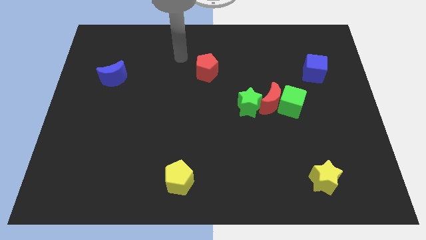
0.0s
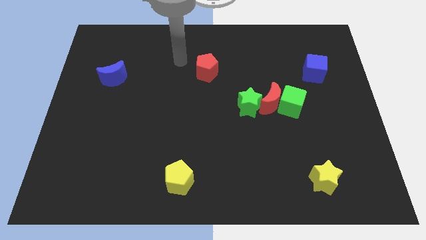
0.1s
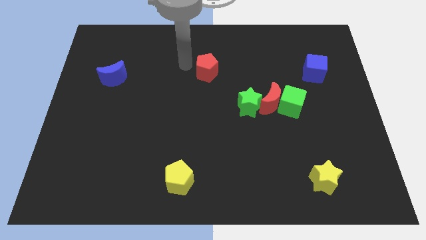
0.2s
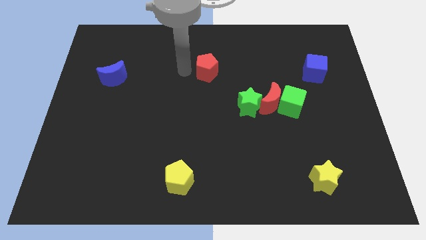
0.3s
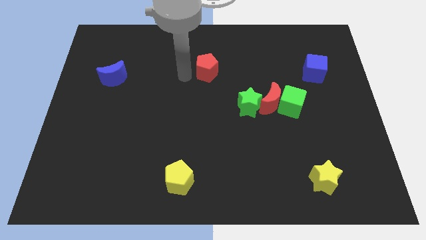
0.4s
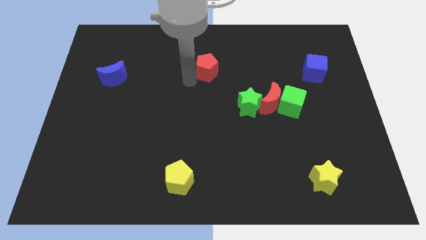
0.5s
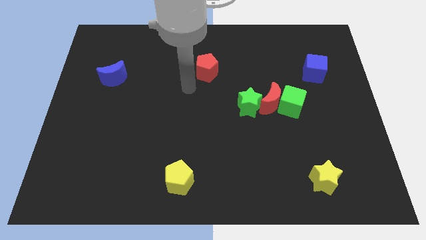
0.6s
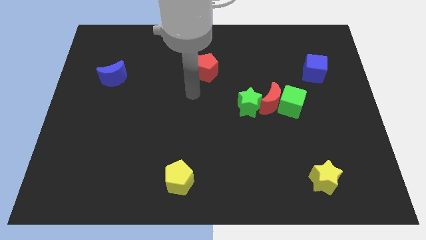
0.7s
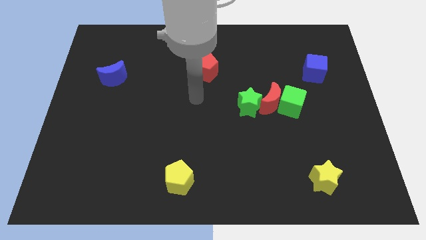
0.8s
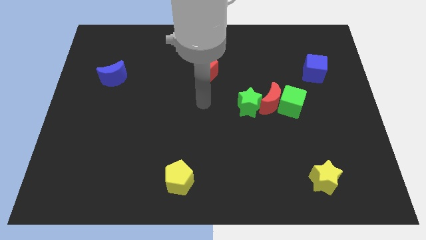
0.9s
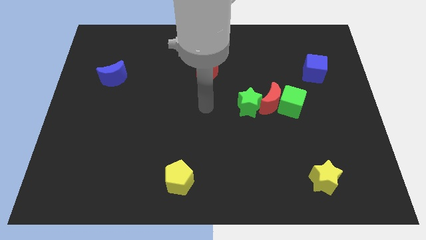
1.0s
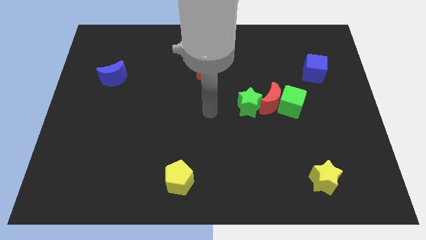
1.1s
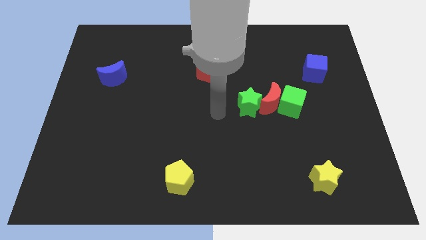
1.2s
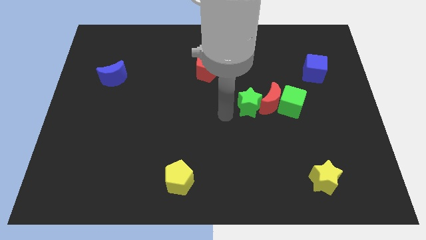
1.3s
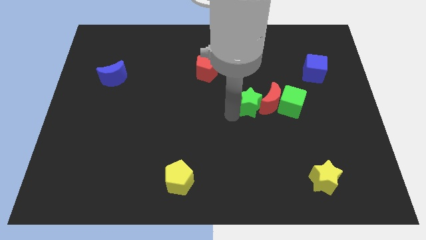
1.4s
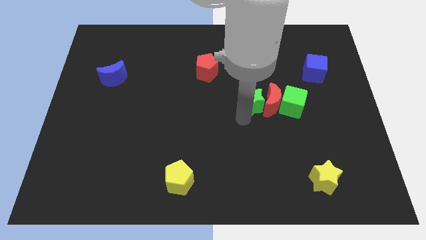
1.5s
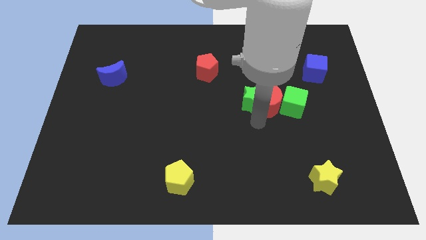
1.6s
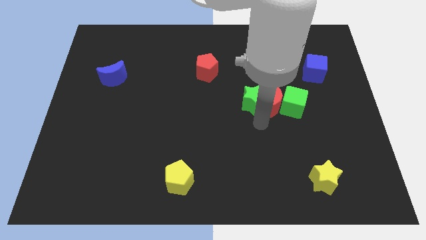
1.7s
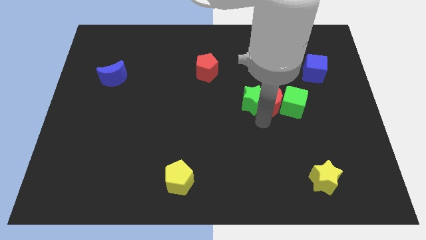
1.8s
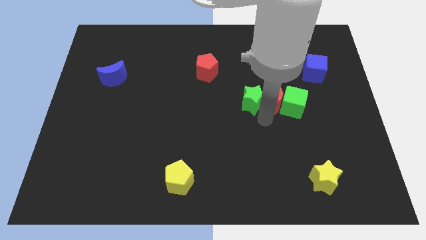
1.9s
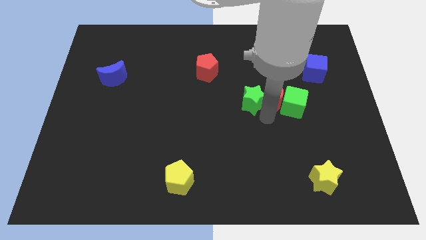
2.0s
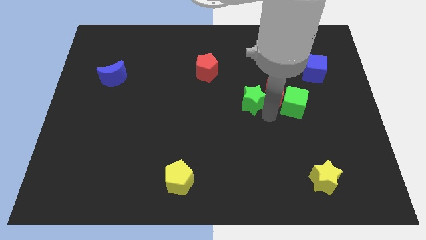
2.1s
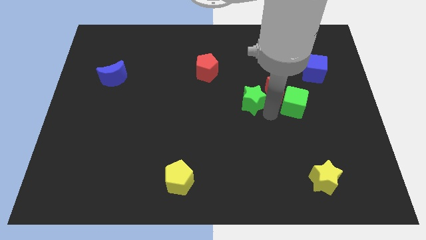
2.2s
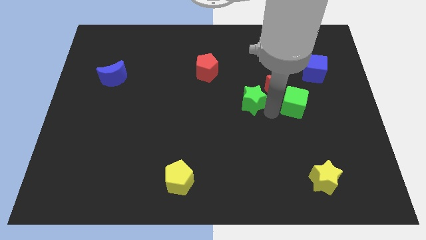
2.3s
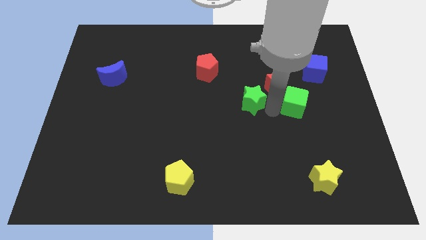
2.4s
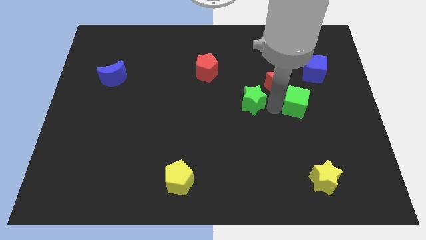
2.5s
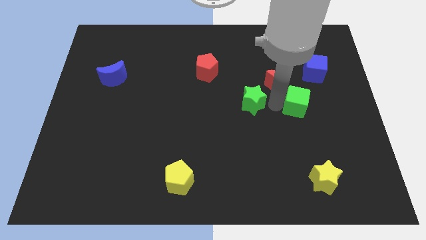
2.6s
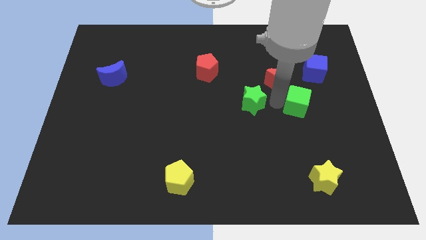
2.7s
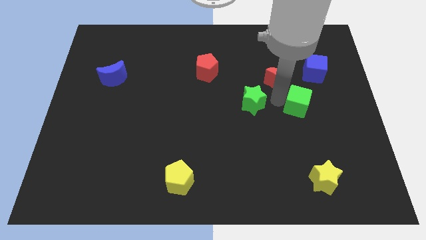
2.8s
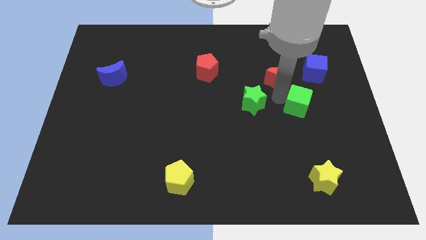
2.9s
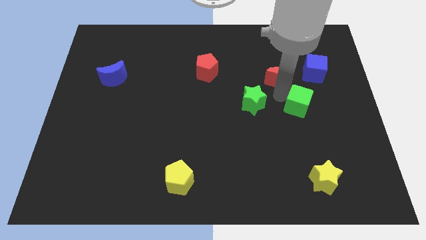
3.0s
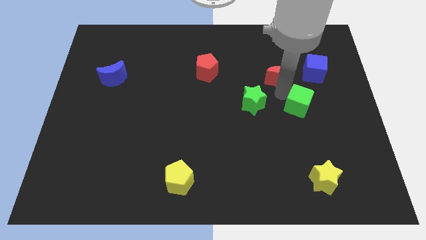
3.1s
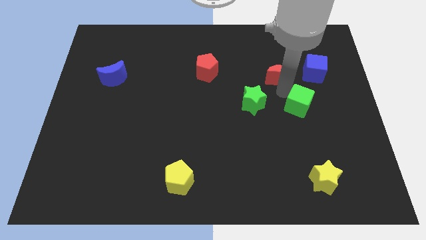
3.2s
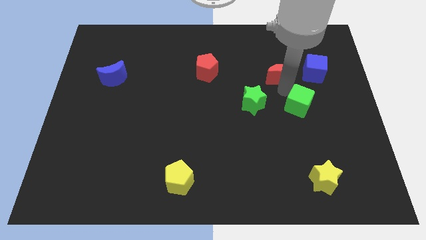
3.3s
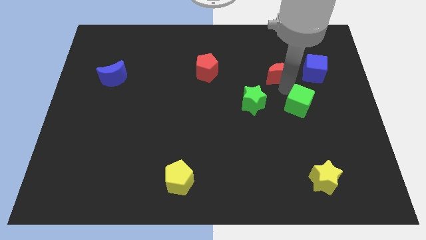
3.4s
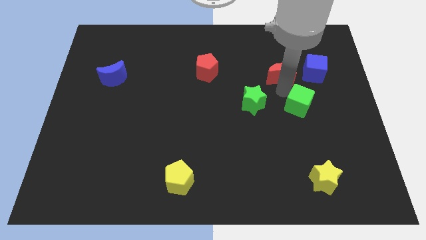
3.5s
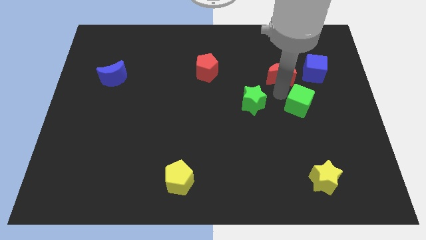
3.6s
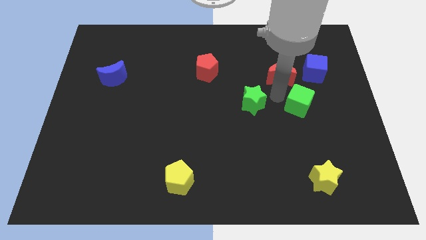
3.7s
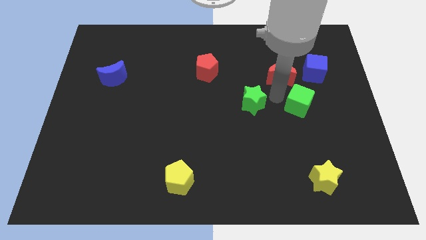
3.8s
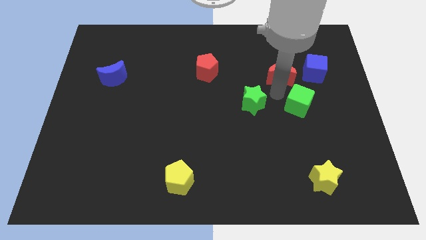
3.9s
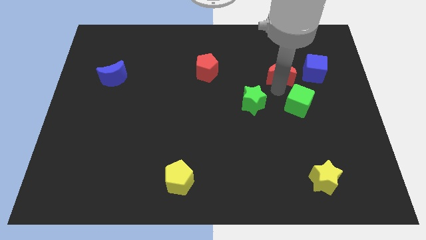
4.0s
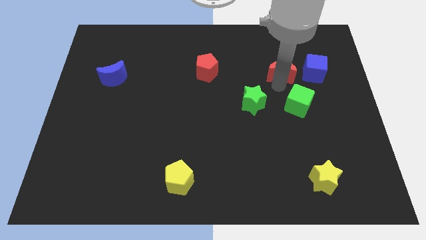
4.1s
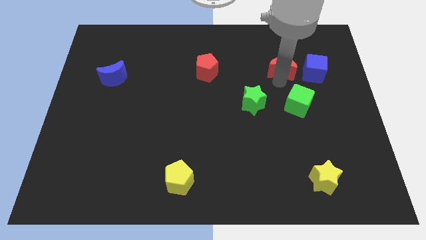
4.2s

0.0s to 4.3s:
separate the red moon from the green cube and green star

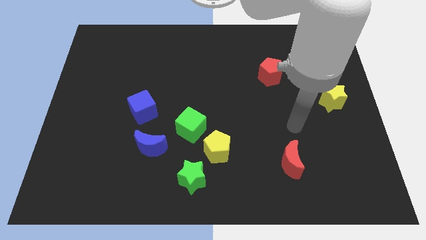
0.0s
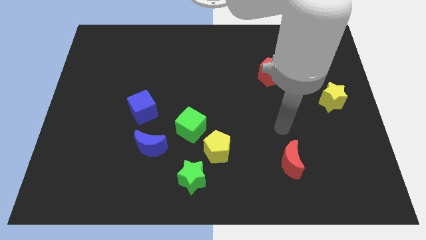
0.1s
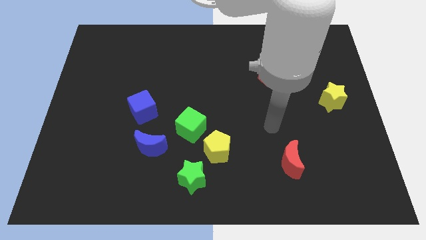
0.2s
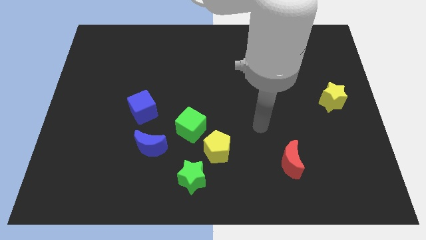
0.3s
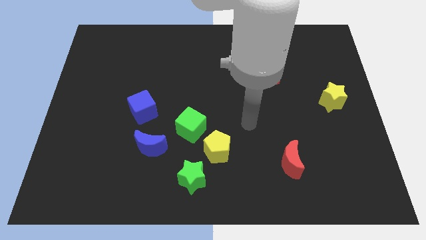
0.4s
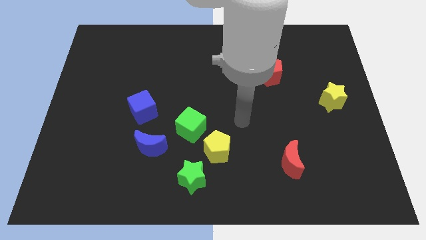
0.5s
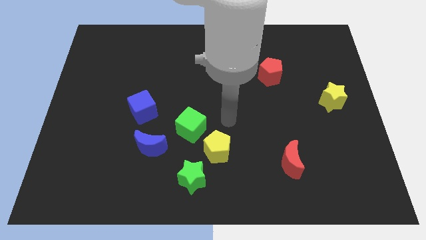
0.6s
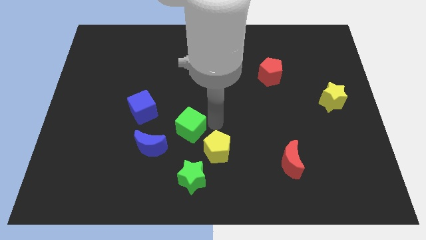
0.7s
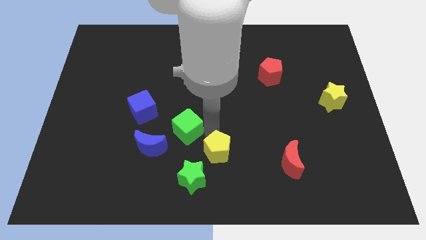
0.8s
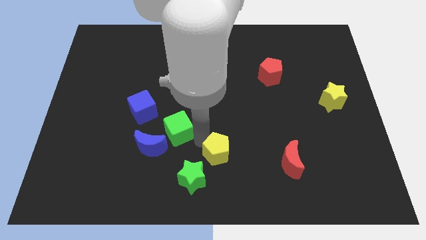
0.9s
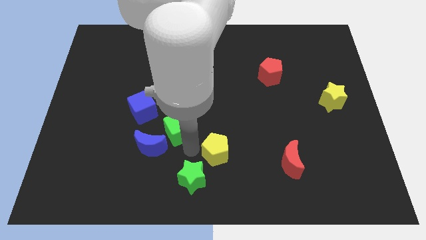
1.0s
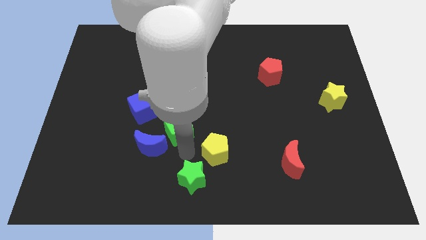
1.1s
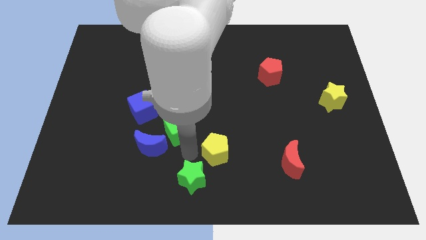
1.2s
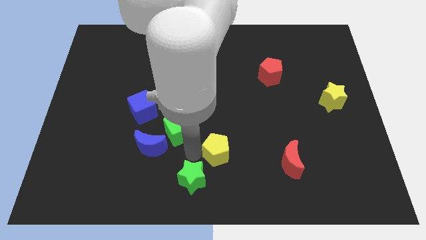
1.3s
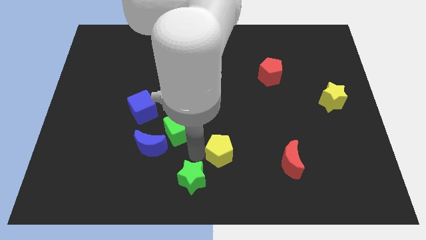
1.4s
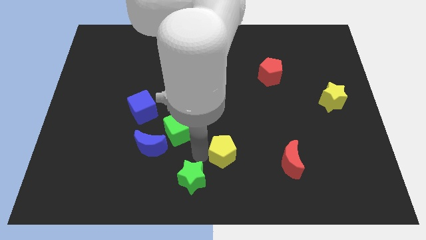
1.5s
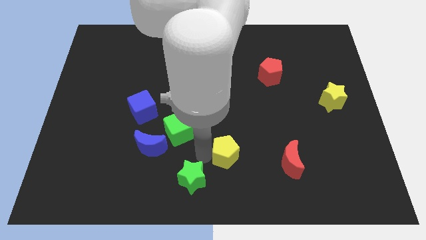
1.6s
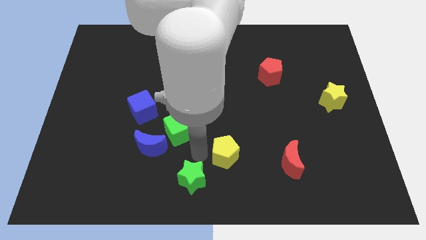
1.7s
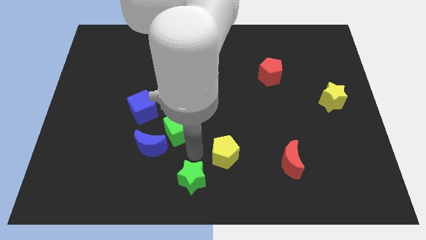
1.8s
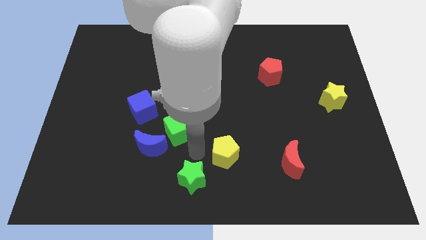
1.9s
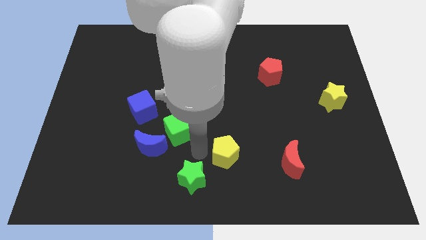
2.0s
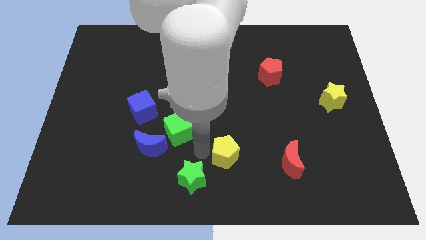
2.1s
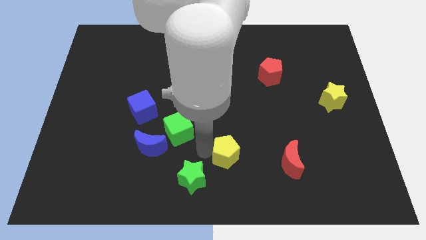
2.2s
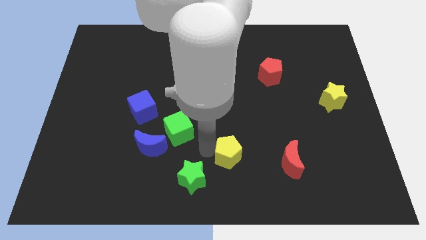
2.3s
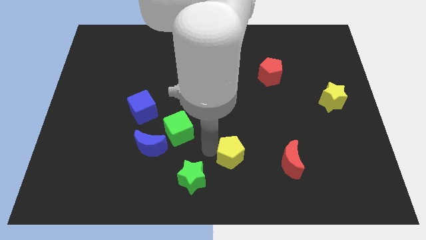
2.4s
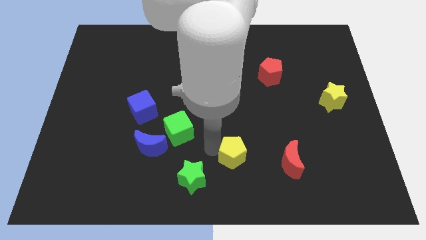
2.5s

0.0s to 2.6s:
separate the yellow pentagon from the green cube and green star

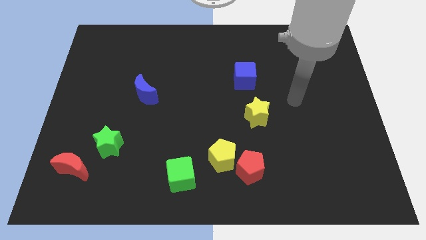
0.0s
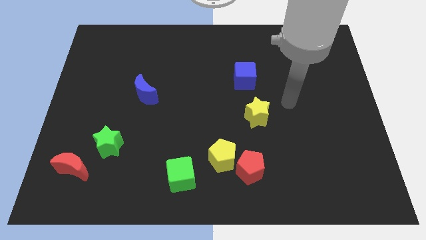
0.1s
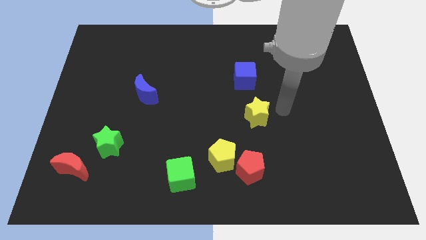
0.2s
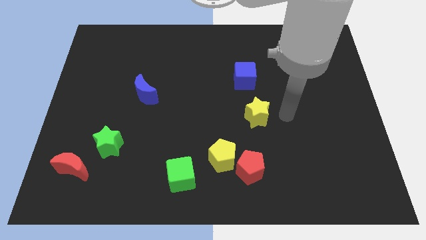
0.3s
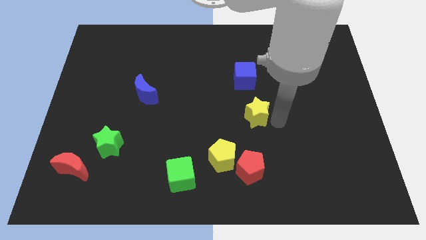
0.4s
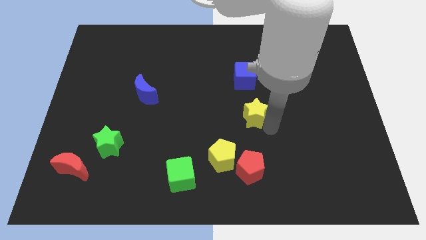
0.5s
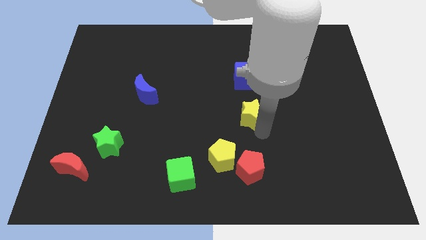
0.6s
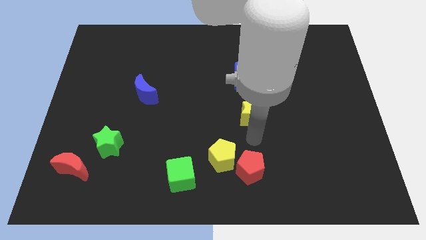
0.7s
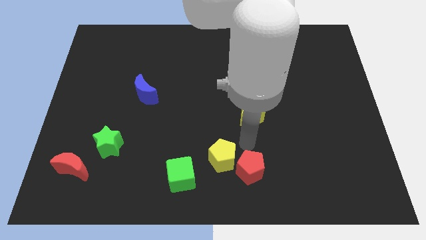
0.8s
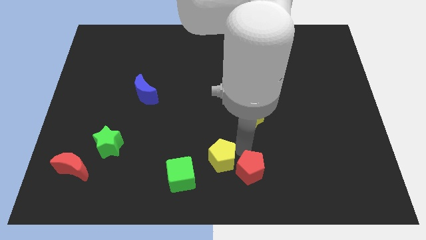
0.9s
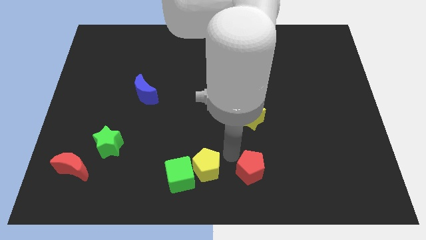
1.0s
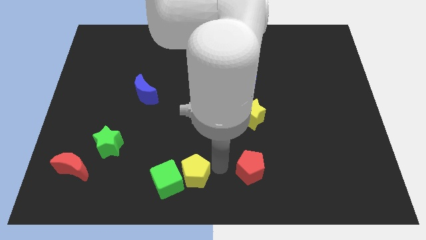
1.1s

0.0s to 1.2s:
separate the red pentagon from the yellow pentagon

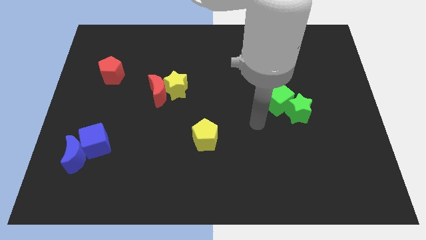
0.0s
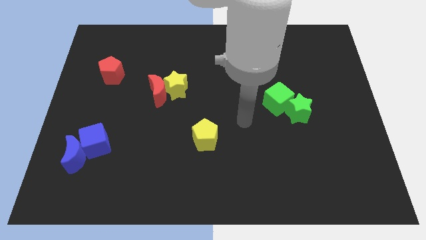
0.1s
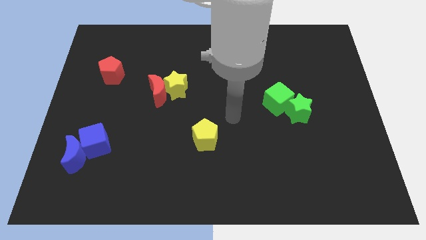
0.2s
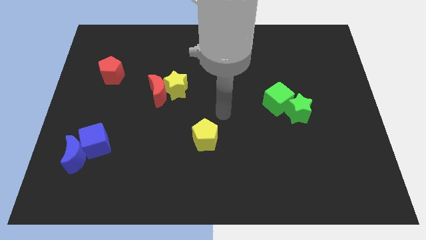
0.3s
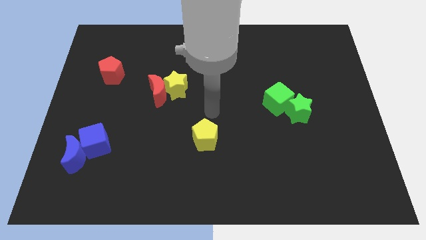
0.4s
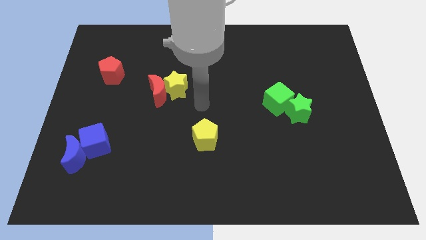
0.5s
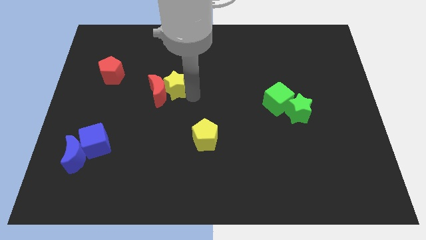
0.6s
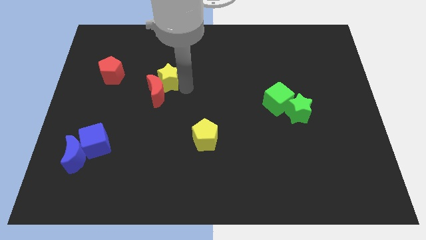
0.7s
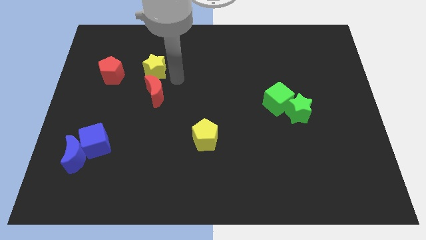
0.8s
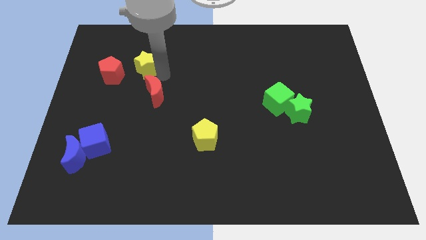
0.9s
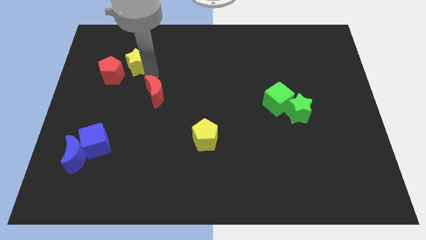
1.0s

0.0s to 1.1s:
separate the red moon from the yellow star
